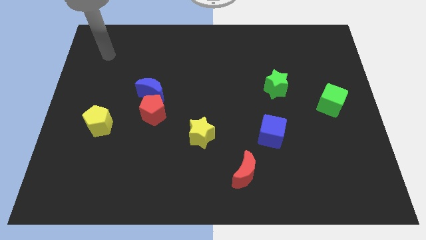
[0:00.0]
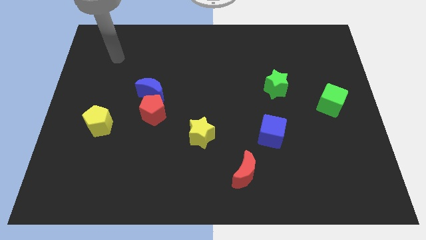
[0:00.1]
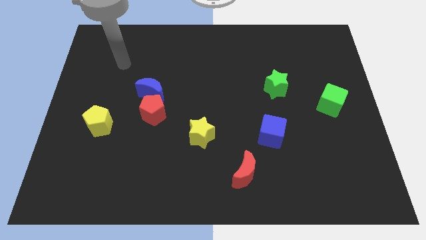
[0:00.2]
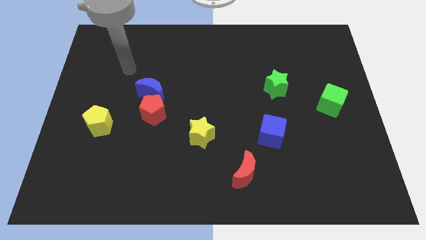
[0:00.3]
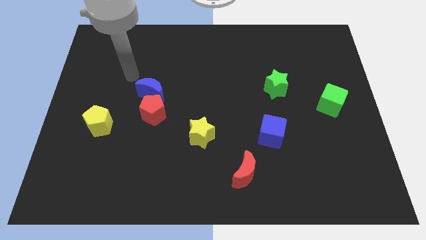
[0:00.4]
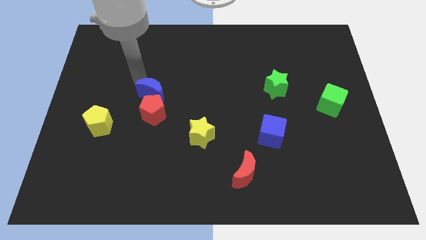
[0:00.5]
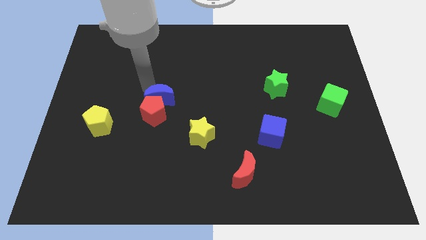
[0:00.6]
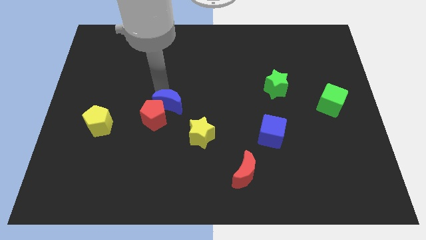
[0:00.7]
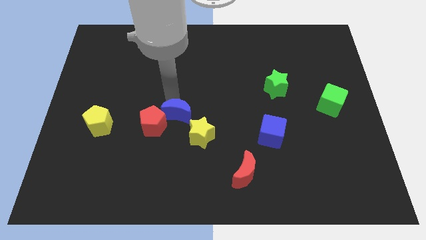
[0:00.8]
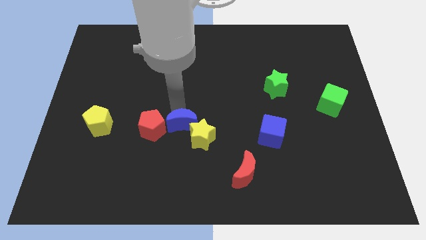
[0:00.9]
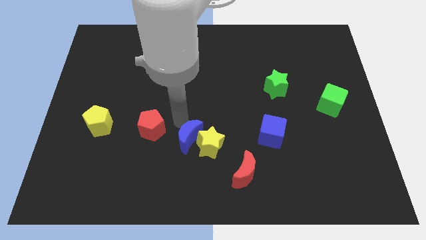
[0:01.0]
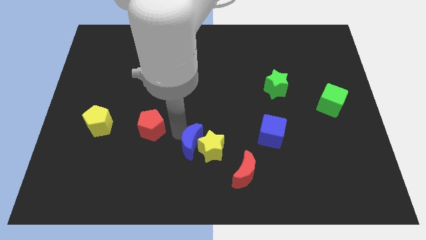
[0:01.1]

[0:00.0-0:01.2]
move the red pentagon away from the blue moon

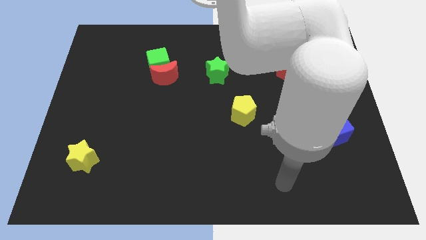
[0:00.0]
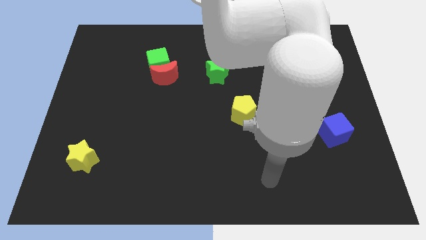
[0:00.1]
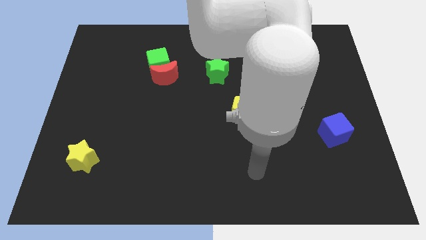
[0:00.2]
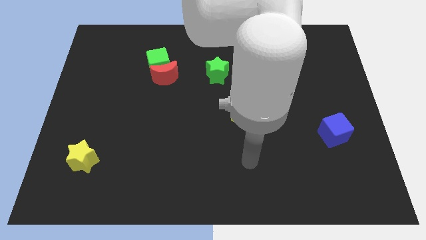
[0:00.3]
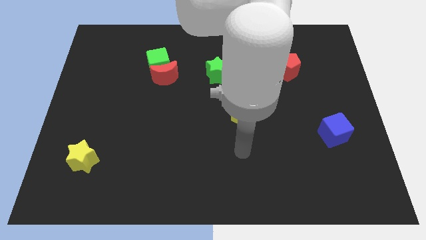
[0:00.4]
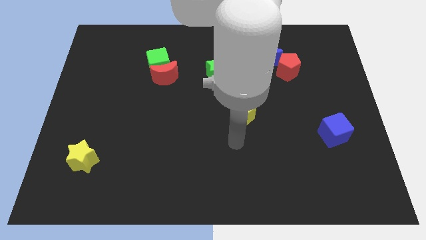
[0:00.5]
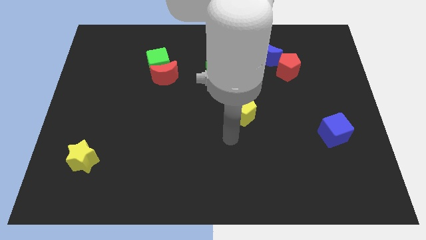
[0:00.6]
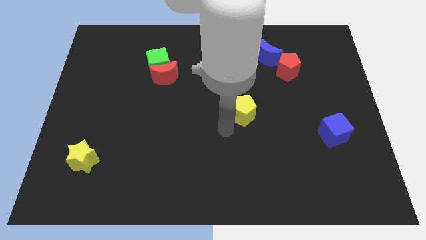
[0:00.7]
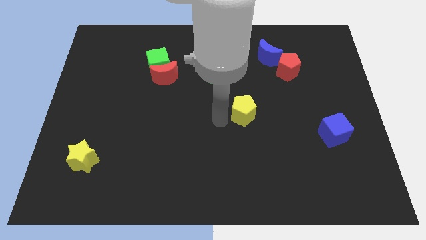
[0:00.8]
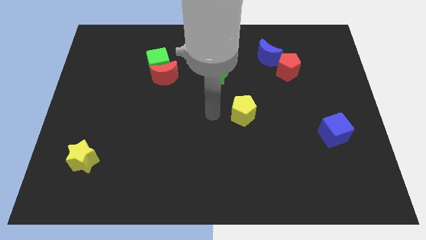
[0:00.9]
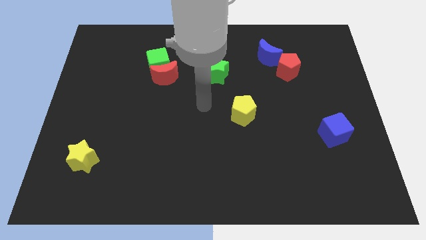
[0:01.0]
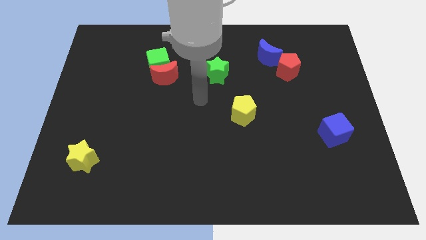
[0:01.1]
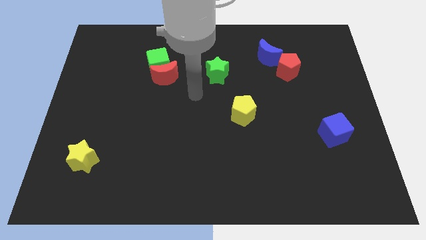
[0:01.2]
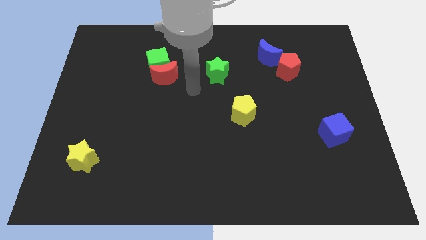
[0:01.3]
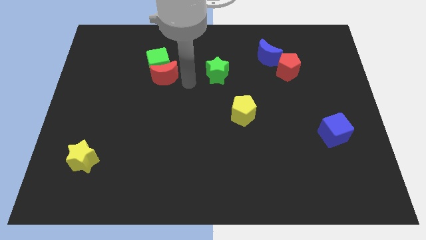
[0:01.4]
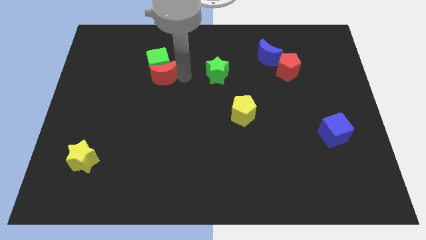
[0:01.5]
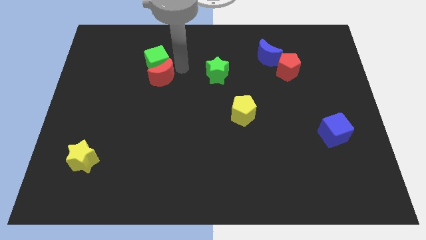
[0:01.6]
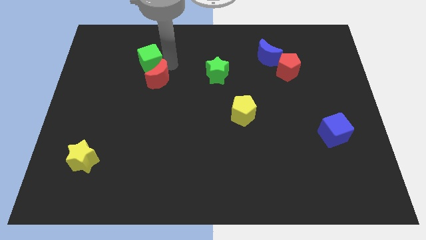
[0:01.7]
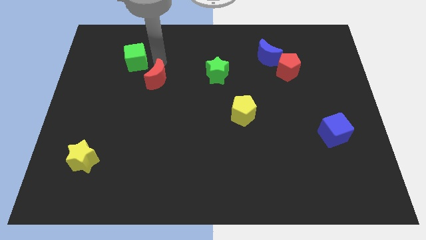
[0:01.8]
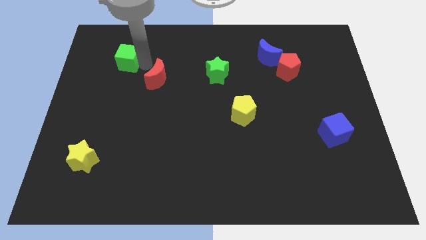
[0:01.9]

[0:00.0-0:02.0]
separate the red moon from the green cube

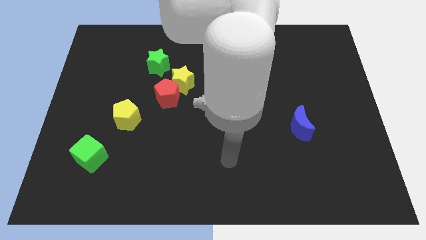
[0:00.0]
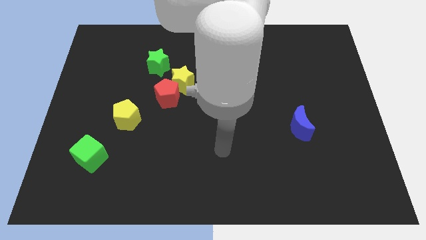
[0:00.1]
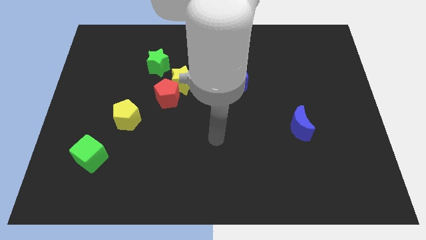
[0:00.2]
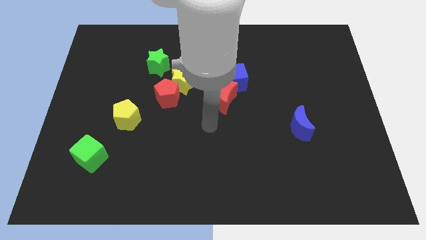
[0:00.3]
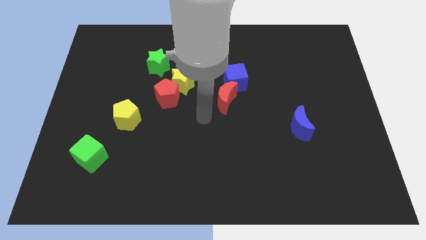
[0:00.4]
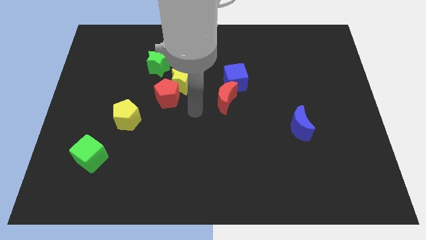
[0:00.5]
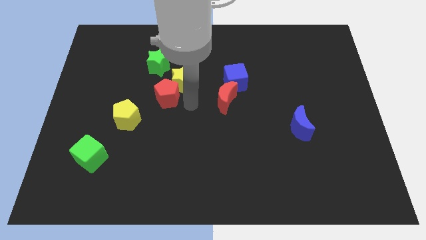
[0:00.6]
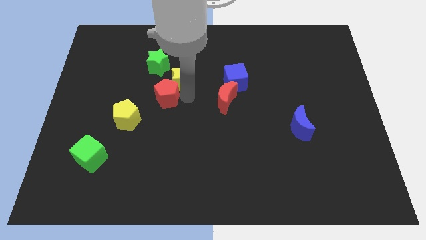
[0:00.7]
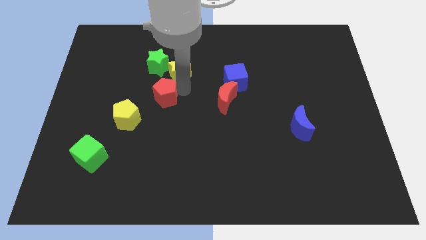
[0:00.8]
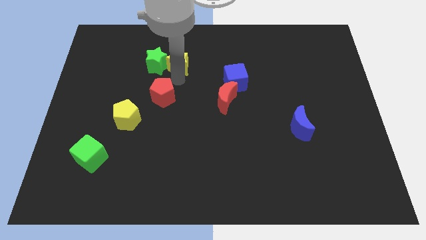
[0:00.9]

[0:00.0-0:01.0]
move the red pentagon away from the yellow star

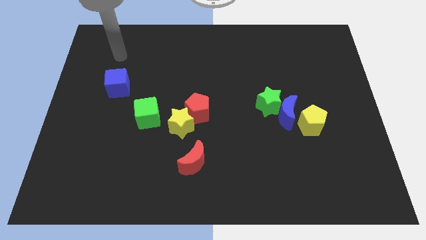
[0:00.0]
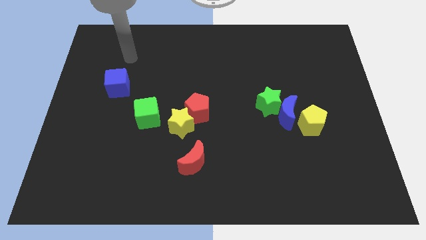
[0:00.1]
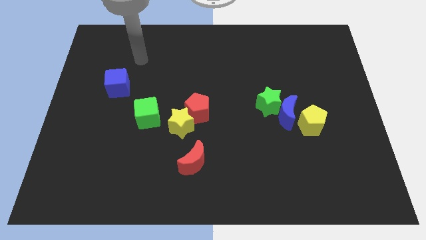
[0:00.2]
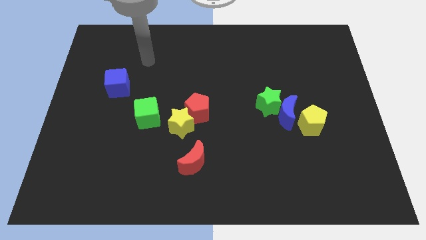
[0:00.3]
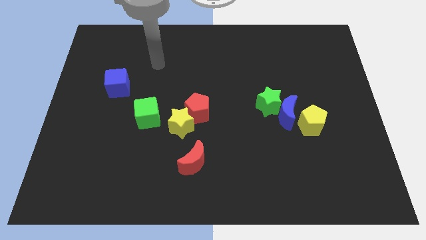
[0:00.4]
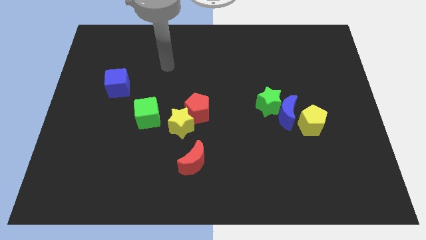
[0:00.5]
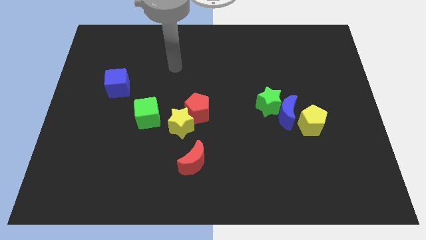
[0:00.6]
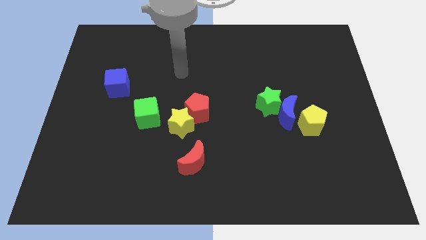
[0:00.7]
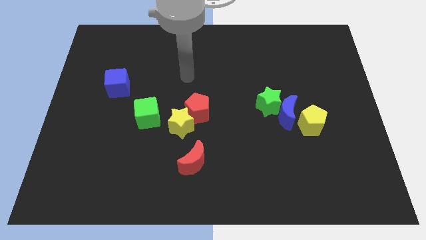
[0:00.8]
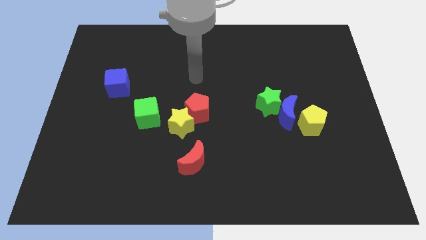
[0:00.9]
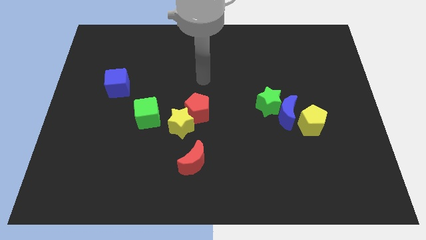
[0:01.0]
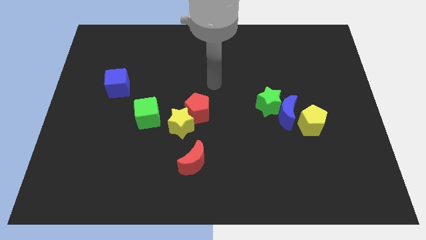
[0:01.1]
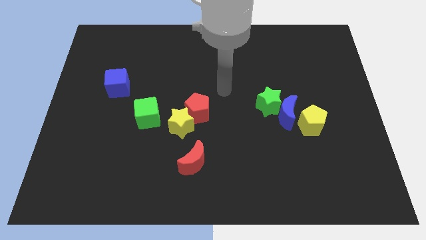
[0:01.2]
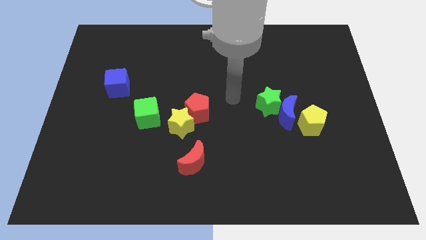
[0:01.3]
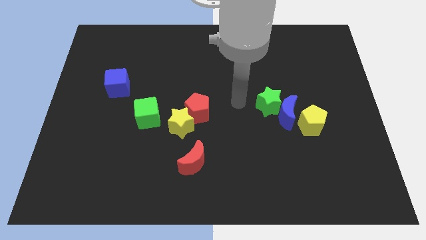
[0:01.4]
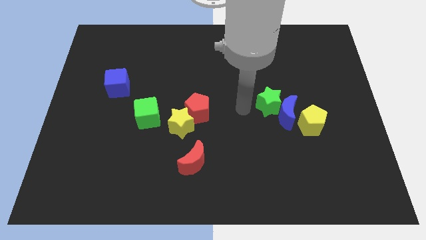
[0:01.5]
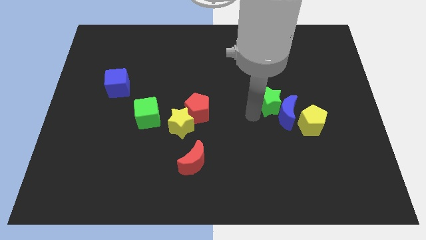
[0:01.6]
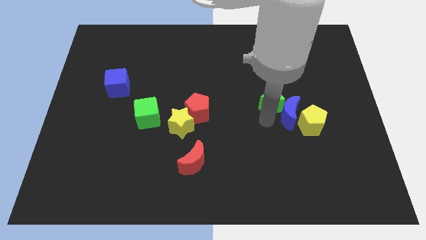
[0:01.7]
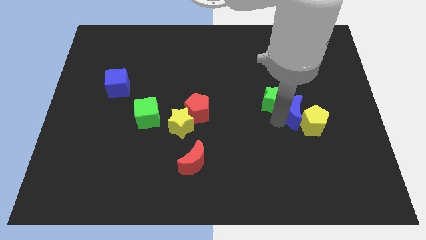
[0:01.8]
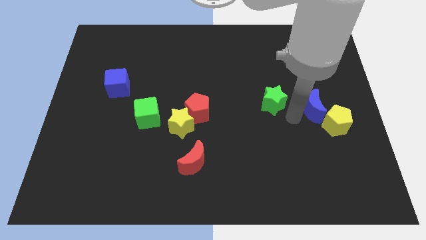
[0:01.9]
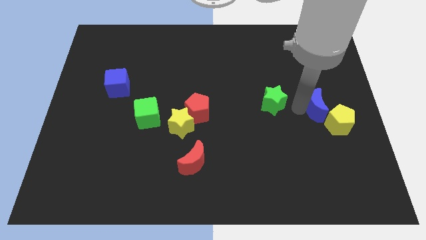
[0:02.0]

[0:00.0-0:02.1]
move the green star away from the blue moon

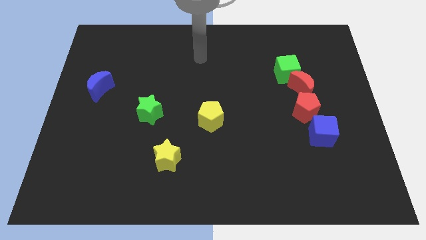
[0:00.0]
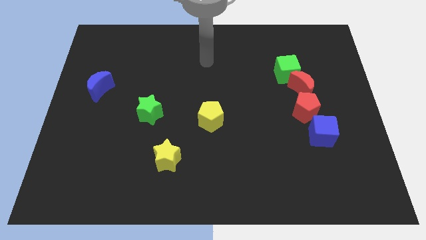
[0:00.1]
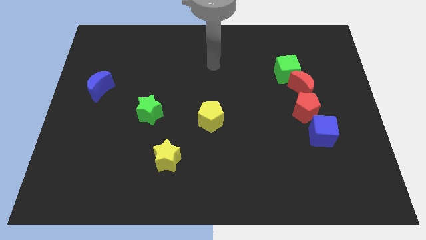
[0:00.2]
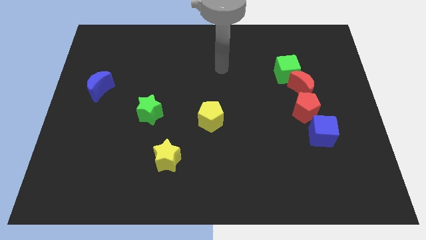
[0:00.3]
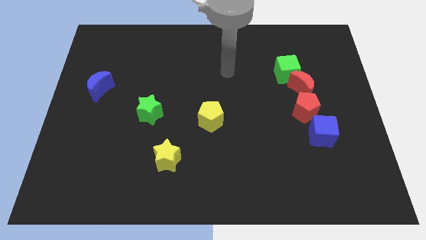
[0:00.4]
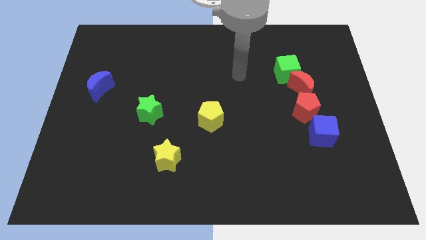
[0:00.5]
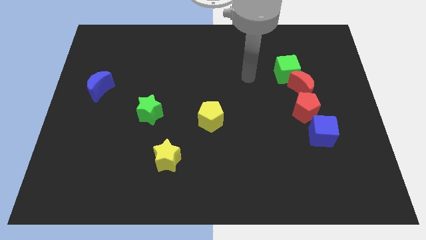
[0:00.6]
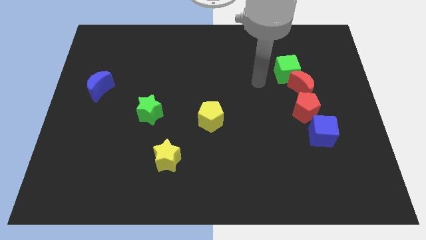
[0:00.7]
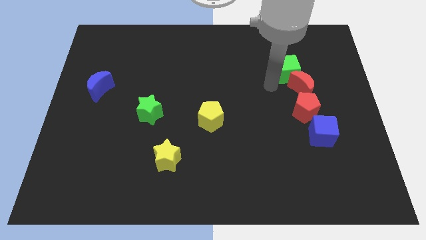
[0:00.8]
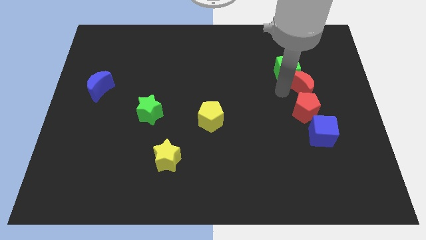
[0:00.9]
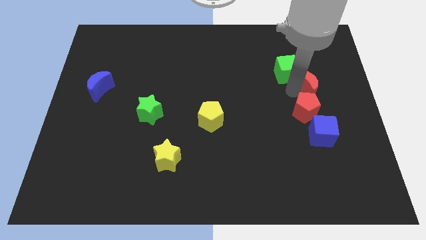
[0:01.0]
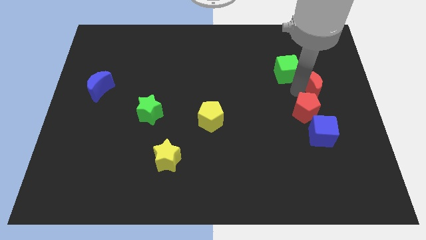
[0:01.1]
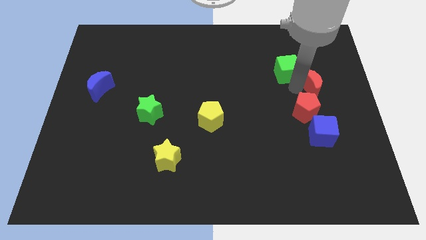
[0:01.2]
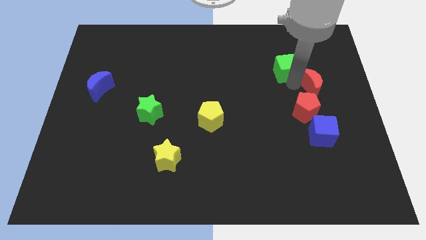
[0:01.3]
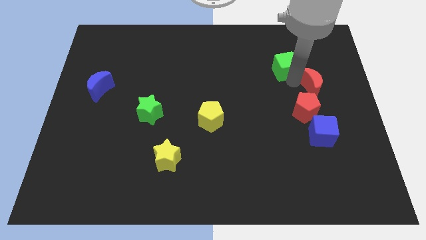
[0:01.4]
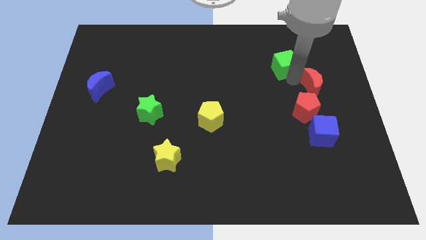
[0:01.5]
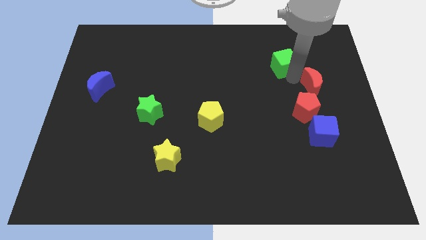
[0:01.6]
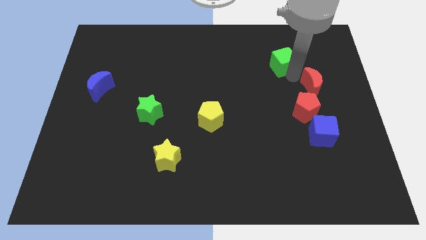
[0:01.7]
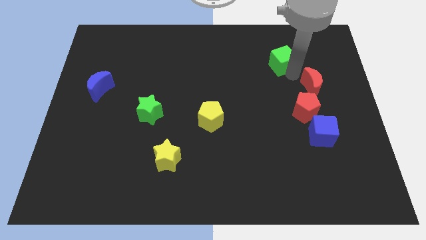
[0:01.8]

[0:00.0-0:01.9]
separate the green cube from the red moon

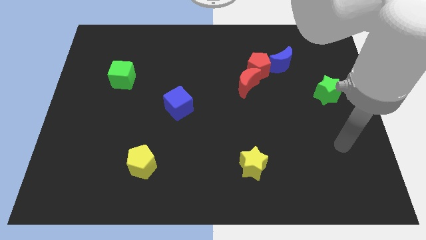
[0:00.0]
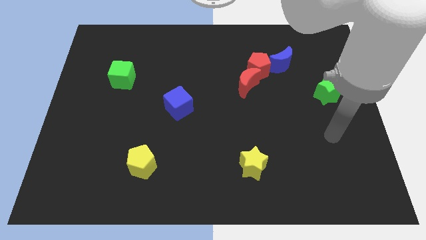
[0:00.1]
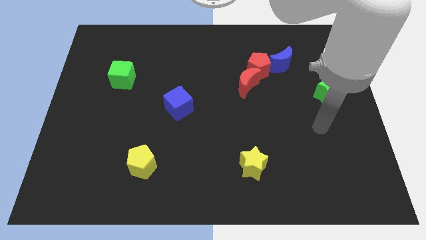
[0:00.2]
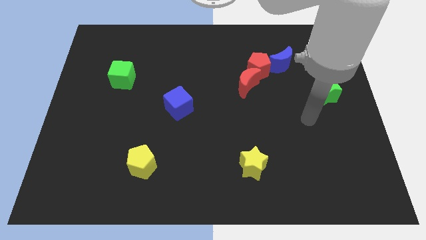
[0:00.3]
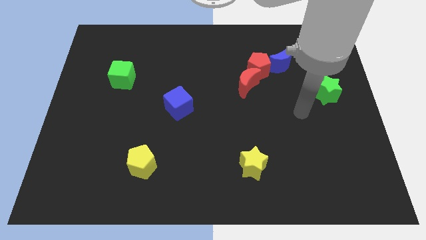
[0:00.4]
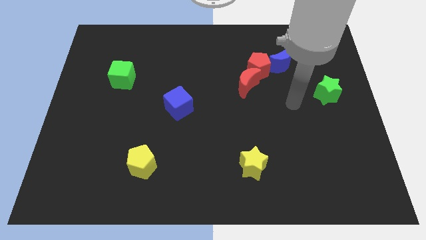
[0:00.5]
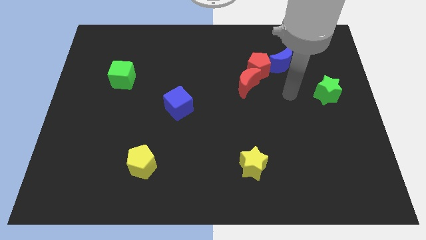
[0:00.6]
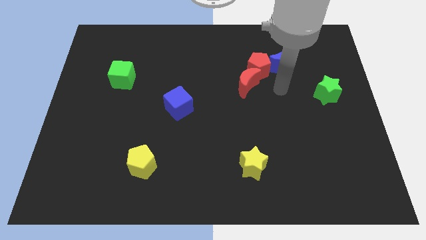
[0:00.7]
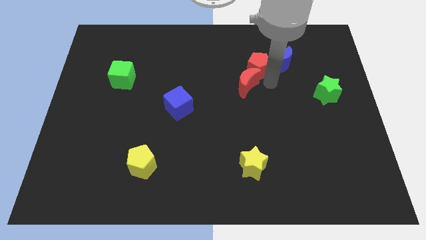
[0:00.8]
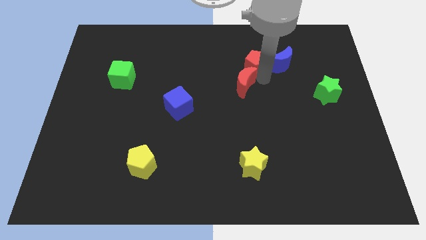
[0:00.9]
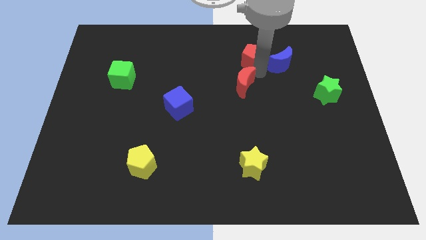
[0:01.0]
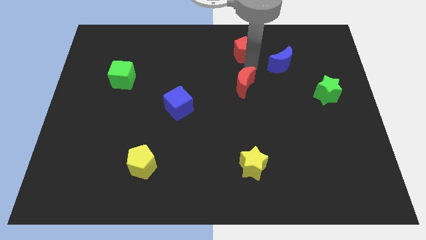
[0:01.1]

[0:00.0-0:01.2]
pull the red moon apart from the red pentagon
